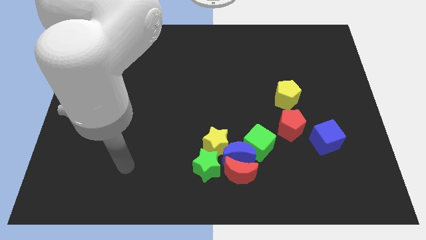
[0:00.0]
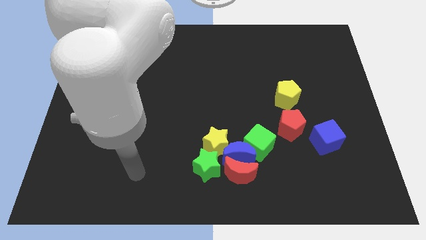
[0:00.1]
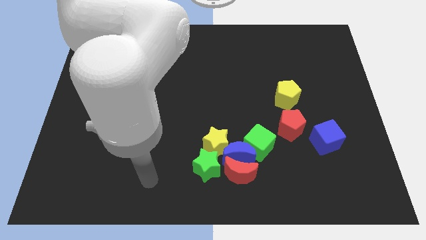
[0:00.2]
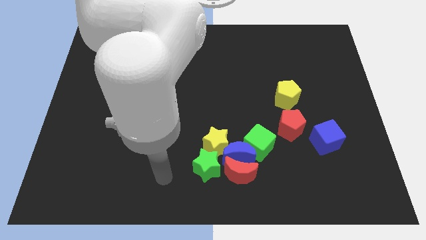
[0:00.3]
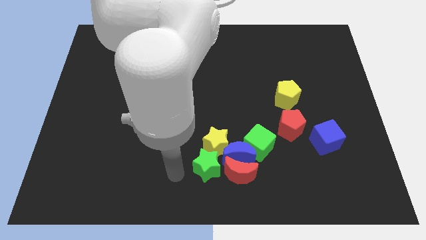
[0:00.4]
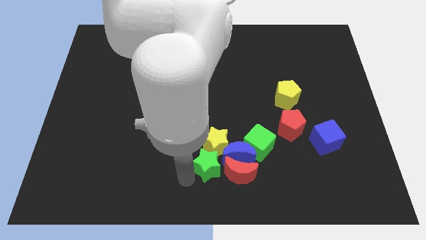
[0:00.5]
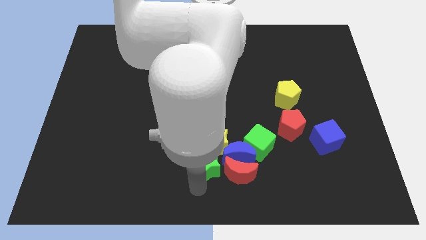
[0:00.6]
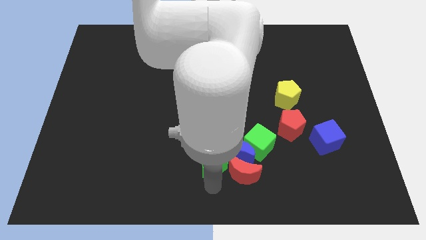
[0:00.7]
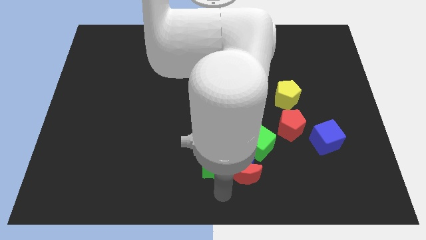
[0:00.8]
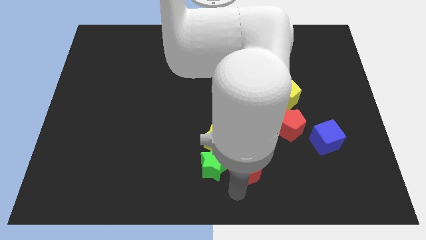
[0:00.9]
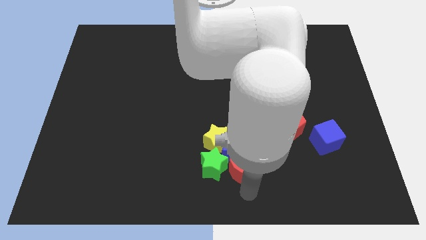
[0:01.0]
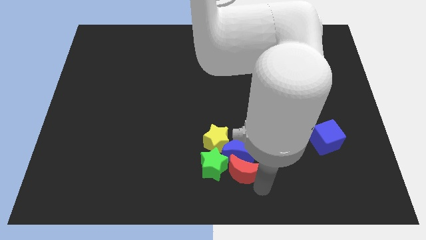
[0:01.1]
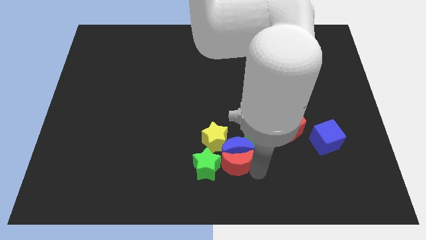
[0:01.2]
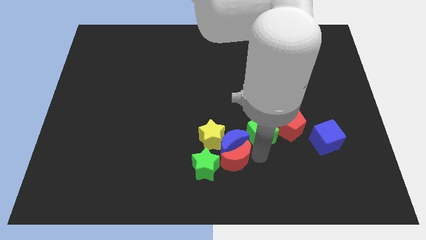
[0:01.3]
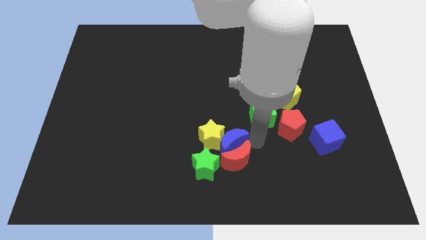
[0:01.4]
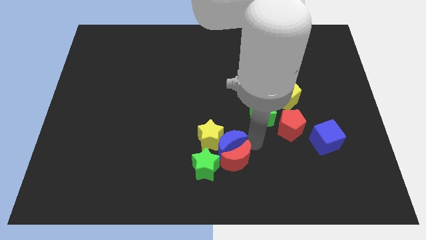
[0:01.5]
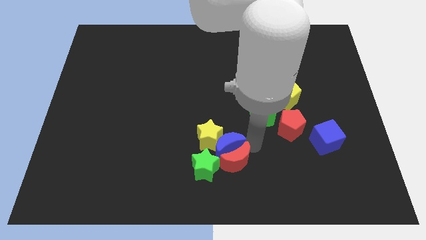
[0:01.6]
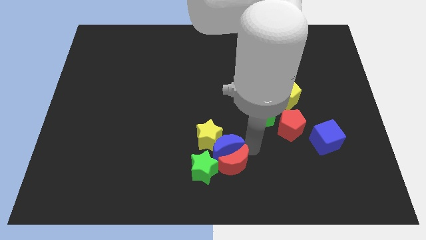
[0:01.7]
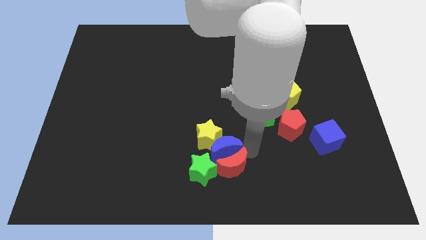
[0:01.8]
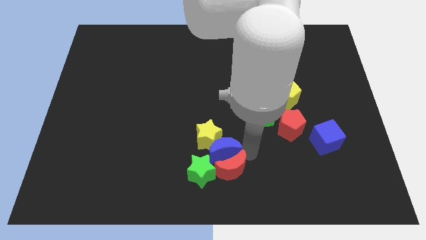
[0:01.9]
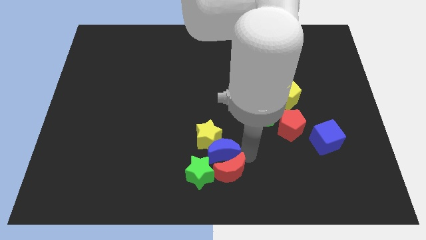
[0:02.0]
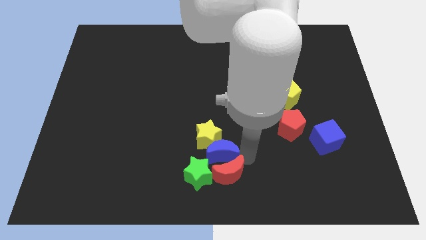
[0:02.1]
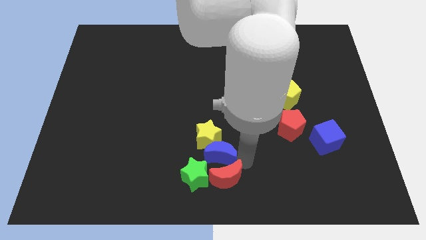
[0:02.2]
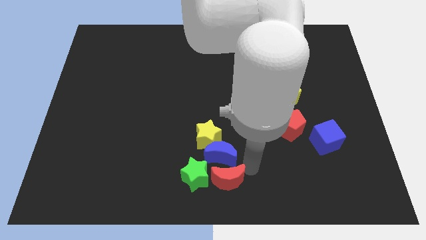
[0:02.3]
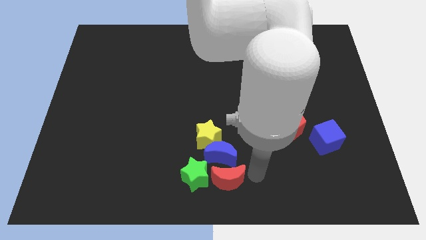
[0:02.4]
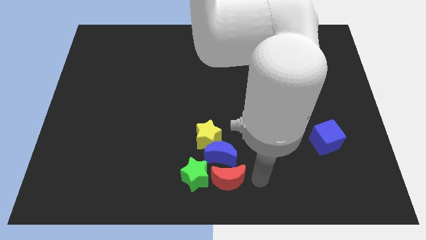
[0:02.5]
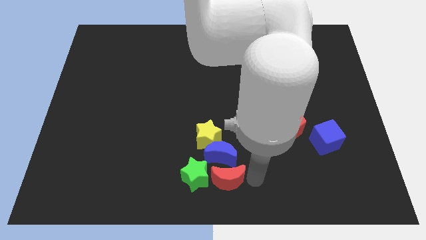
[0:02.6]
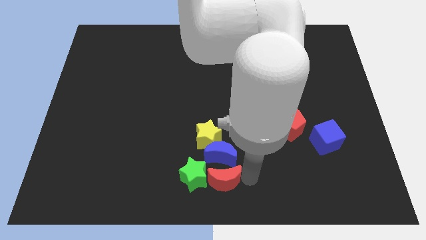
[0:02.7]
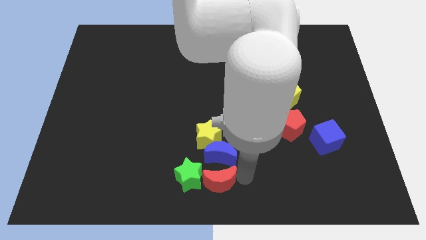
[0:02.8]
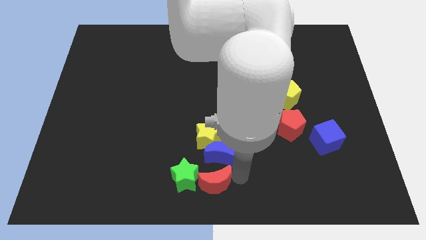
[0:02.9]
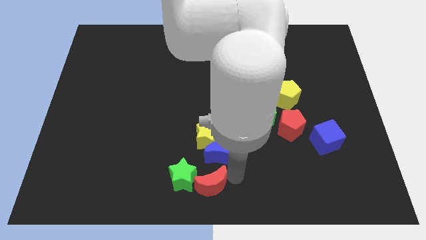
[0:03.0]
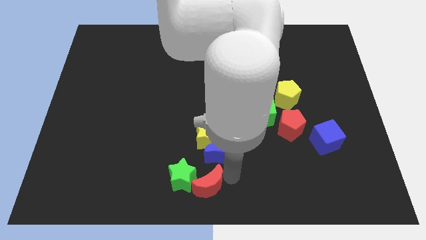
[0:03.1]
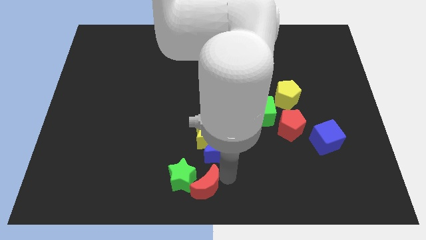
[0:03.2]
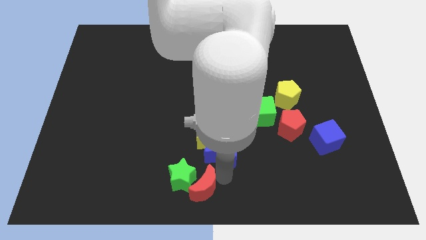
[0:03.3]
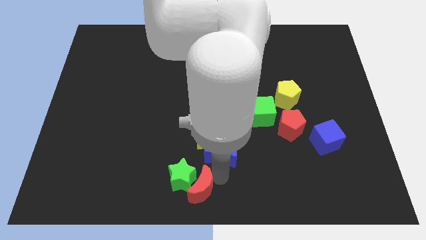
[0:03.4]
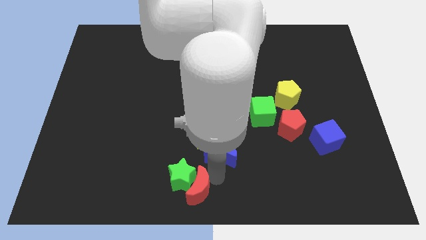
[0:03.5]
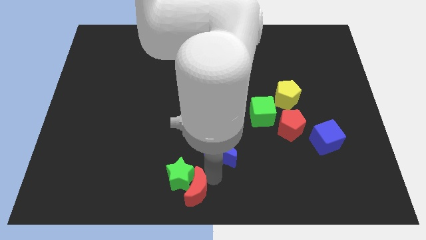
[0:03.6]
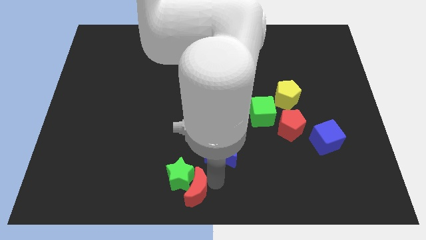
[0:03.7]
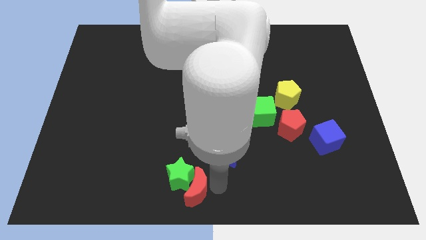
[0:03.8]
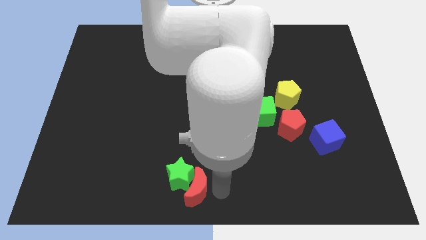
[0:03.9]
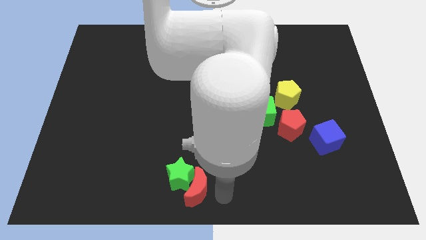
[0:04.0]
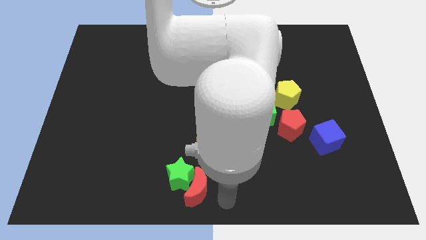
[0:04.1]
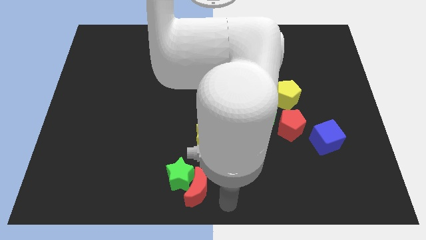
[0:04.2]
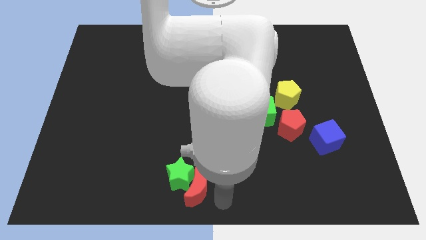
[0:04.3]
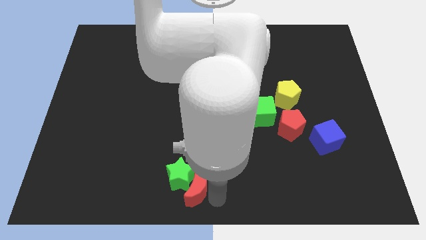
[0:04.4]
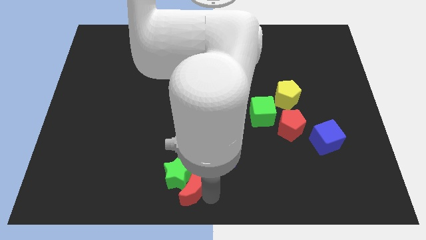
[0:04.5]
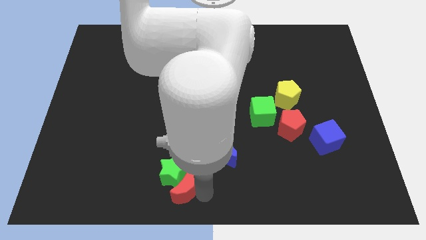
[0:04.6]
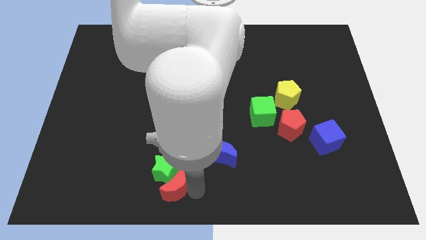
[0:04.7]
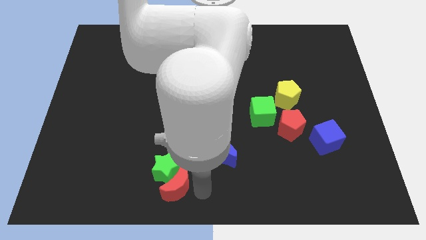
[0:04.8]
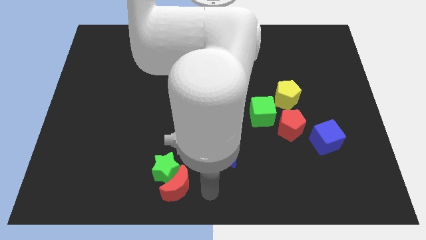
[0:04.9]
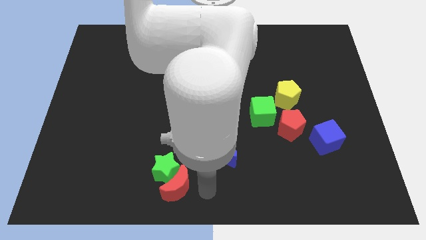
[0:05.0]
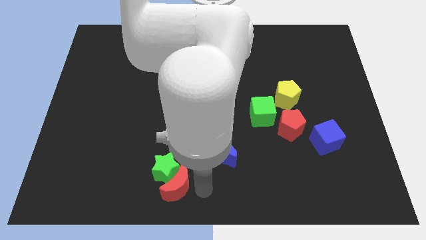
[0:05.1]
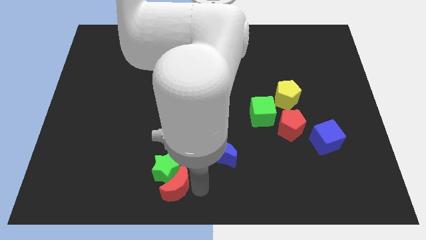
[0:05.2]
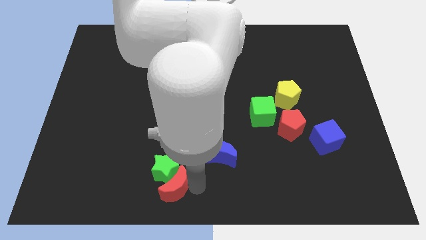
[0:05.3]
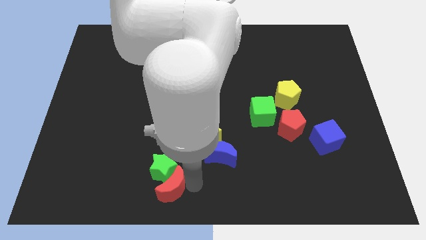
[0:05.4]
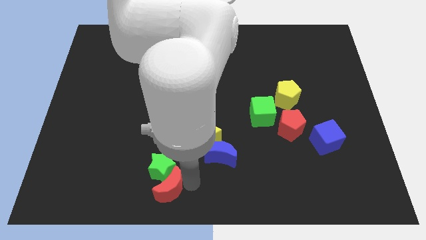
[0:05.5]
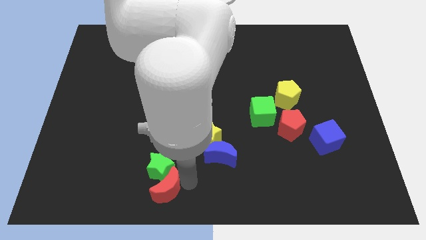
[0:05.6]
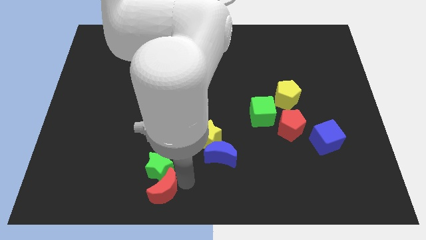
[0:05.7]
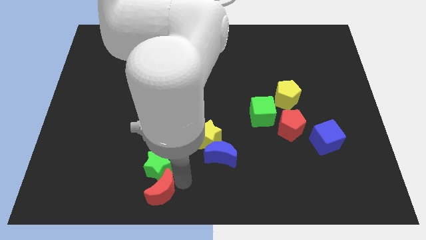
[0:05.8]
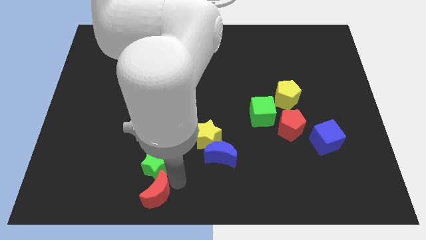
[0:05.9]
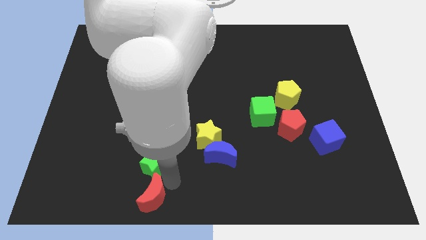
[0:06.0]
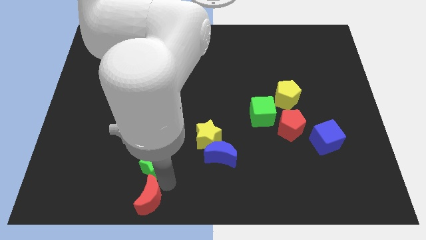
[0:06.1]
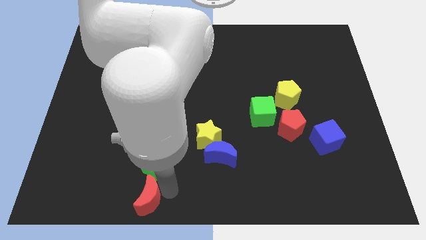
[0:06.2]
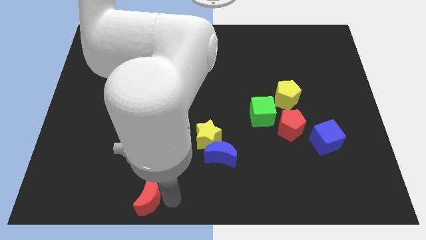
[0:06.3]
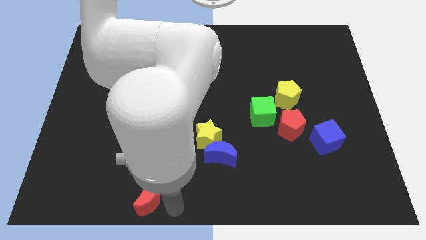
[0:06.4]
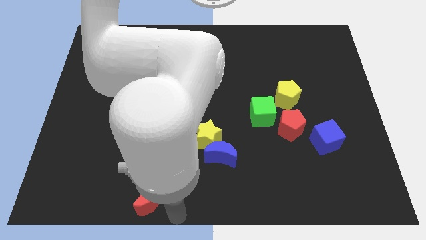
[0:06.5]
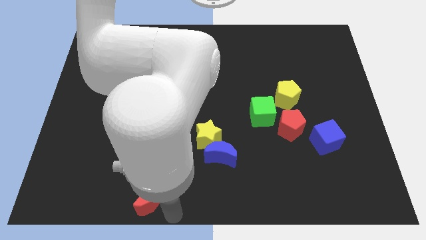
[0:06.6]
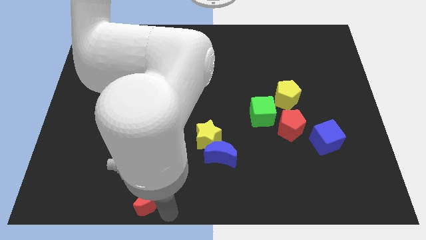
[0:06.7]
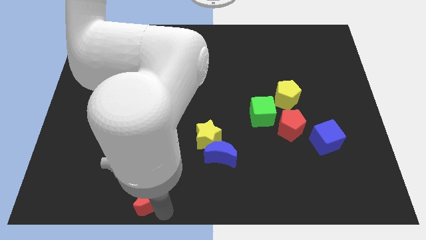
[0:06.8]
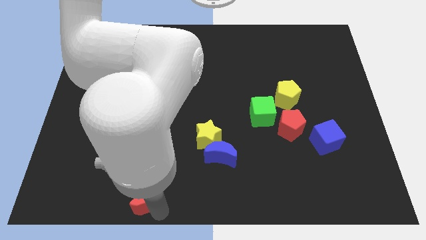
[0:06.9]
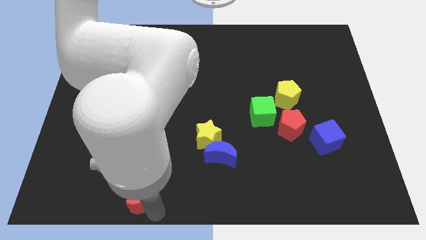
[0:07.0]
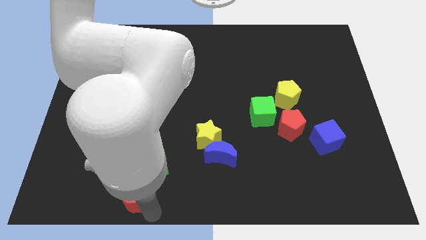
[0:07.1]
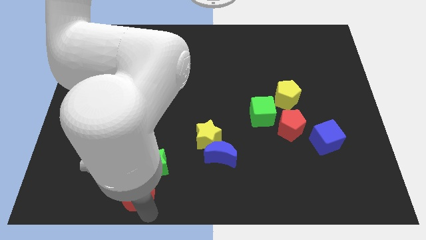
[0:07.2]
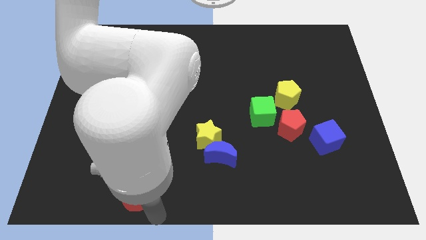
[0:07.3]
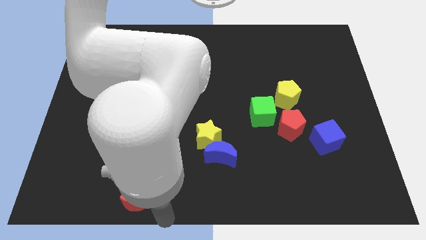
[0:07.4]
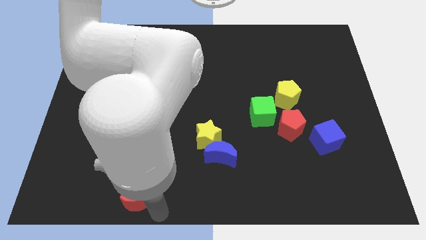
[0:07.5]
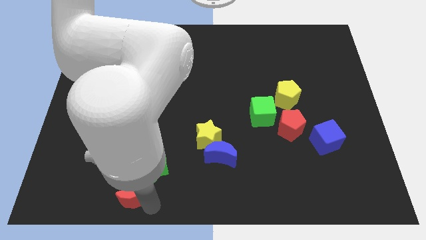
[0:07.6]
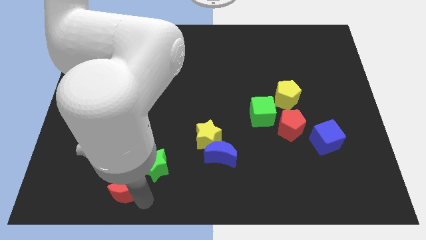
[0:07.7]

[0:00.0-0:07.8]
move the red moon left

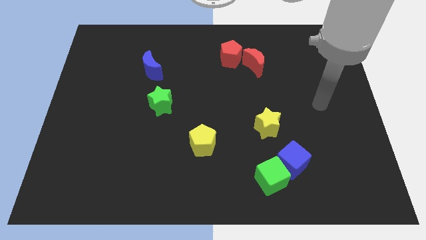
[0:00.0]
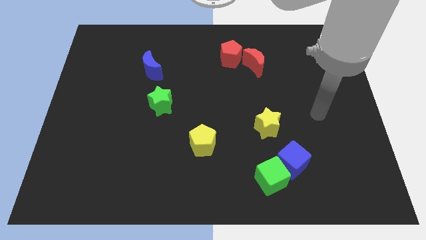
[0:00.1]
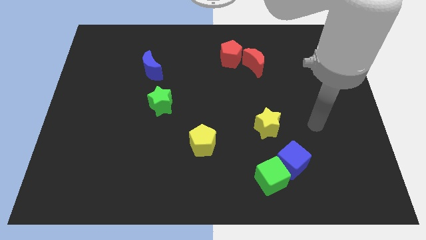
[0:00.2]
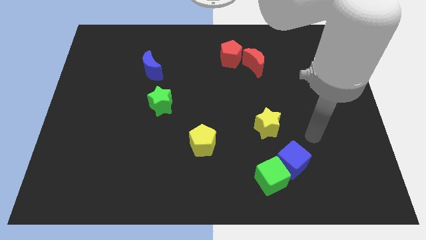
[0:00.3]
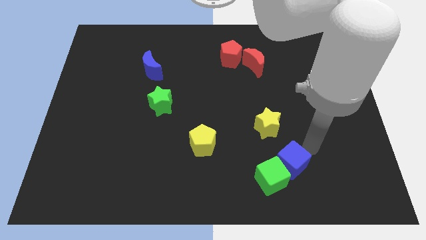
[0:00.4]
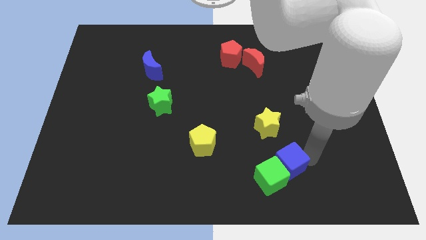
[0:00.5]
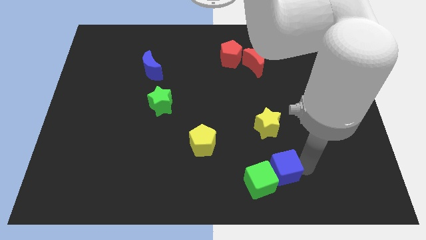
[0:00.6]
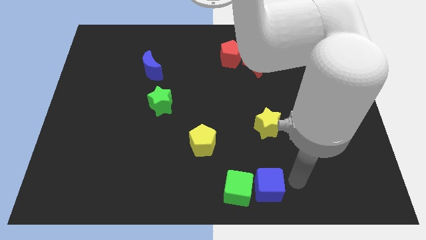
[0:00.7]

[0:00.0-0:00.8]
slide the green cube slightly to the left
